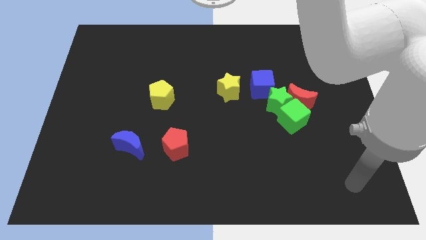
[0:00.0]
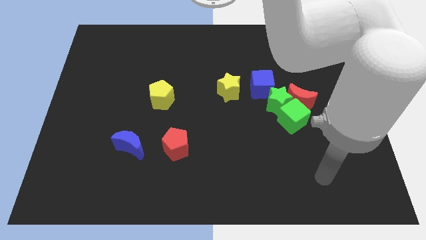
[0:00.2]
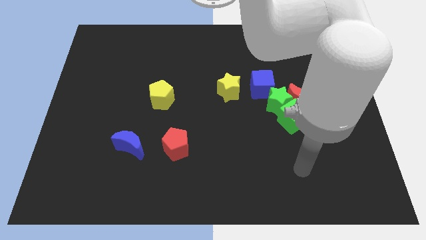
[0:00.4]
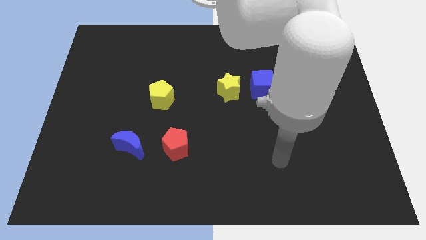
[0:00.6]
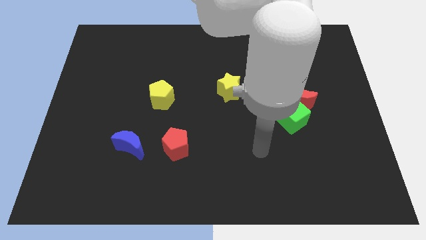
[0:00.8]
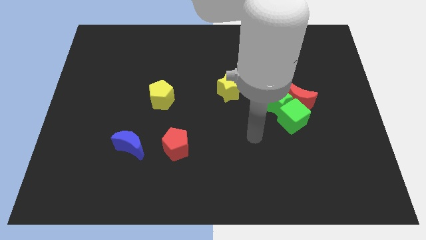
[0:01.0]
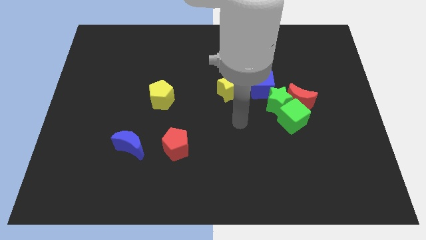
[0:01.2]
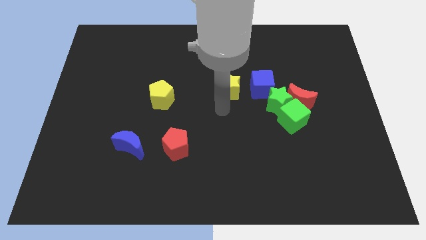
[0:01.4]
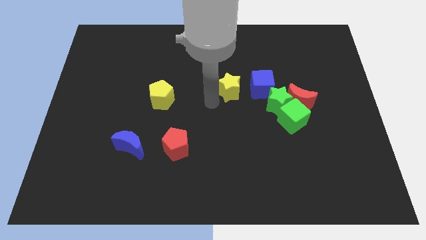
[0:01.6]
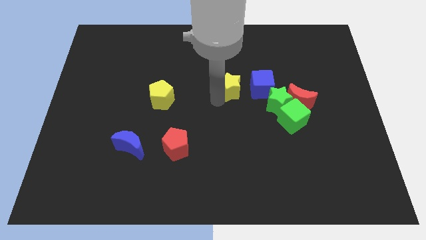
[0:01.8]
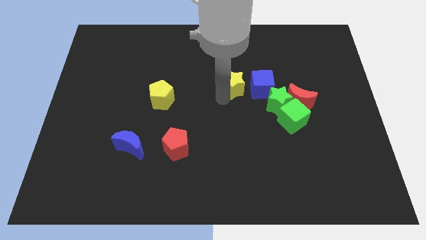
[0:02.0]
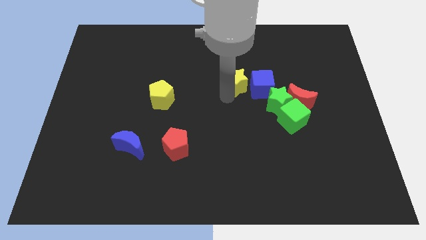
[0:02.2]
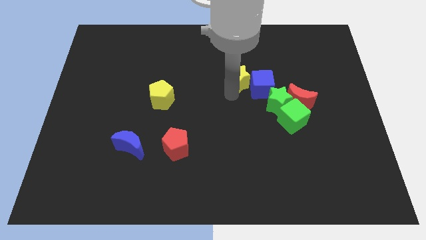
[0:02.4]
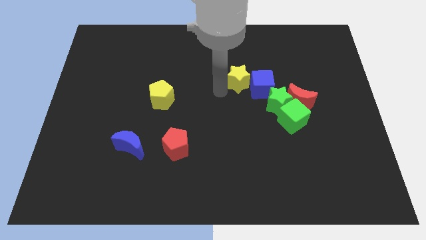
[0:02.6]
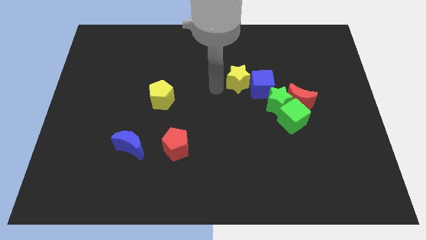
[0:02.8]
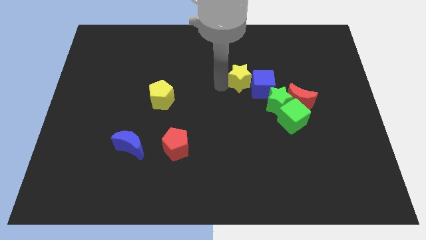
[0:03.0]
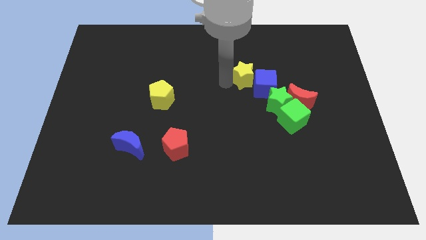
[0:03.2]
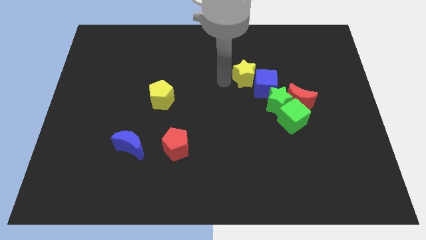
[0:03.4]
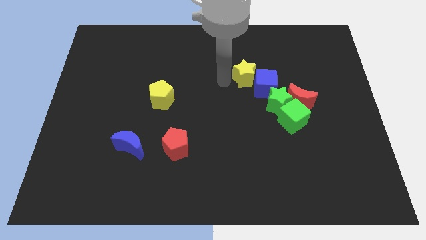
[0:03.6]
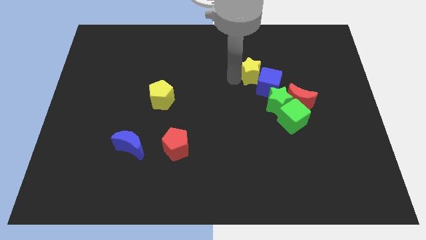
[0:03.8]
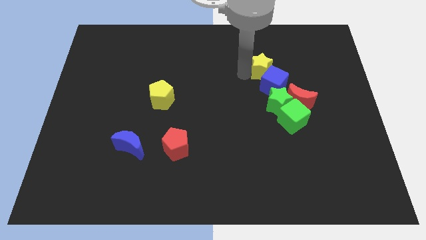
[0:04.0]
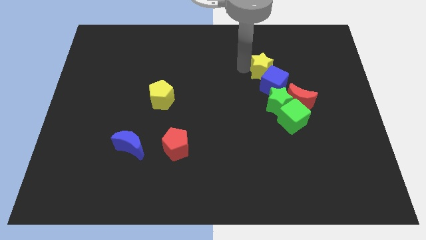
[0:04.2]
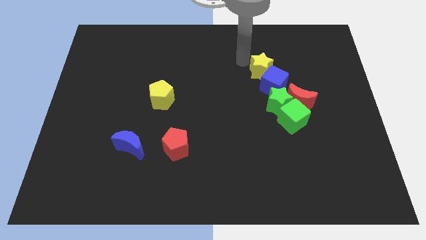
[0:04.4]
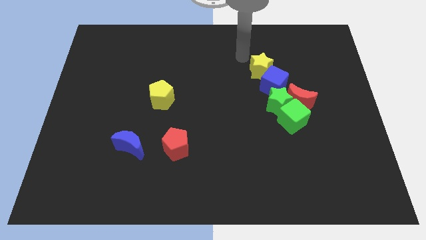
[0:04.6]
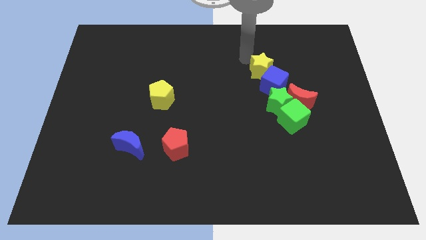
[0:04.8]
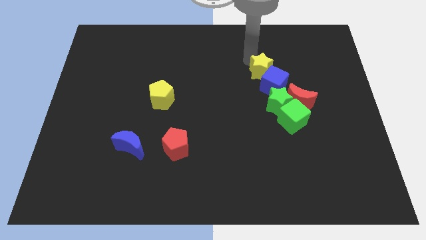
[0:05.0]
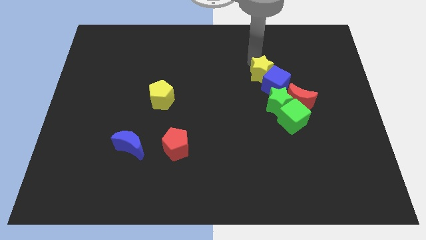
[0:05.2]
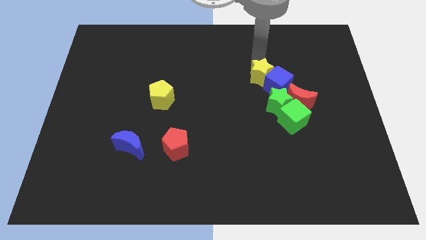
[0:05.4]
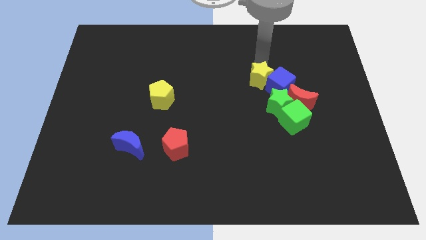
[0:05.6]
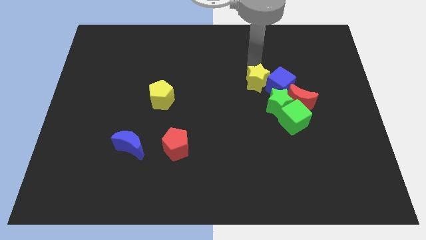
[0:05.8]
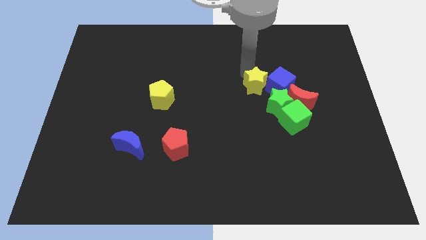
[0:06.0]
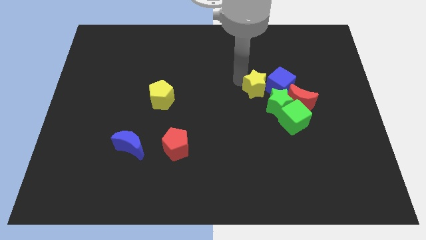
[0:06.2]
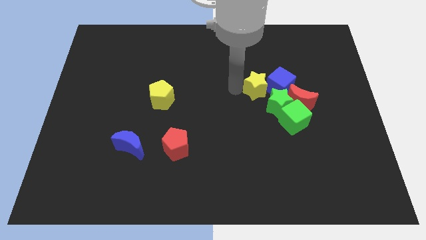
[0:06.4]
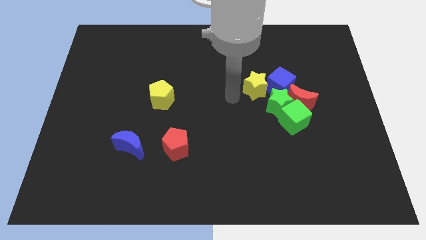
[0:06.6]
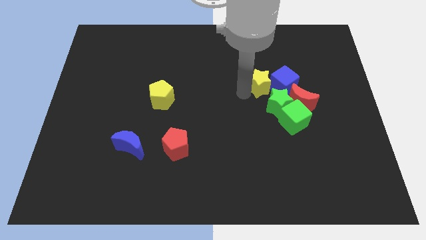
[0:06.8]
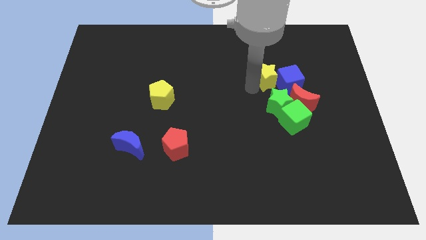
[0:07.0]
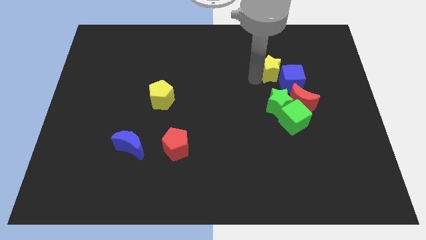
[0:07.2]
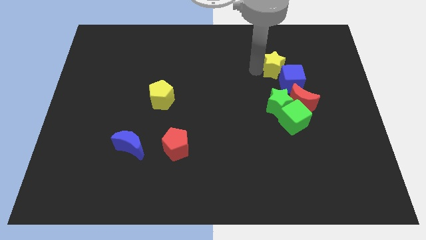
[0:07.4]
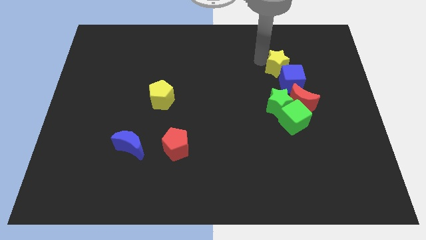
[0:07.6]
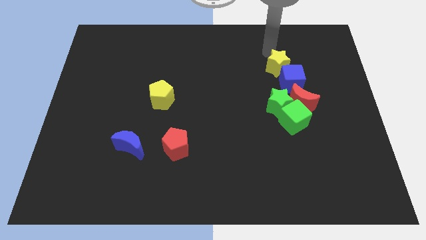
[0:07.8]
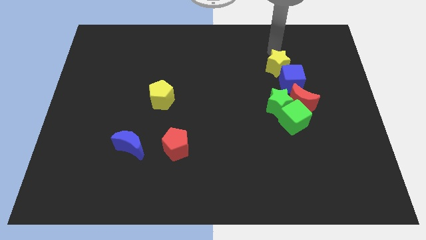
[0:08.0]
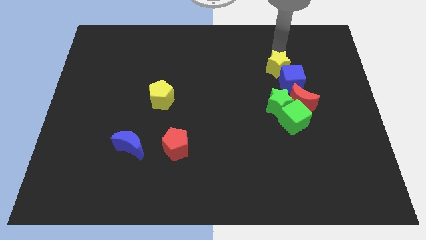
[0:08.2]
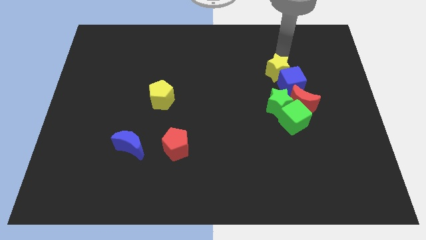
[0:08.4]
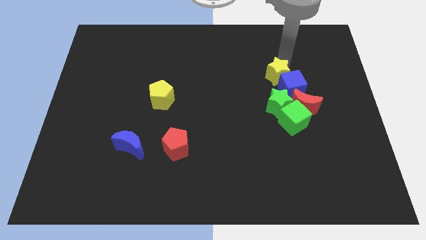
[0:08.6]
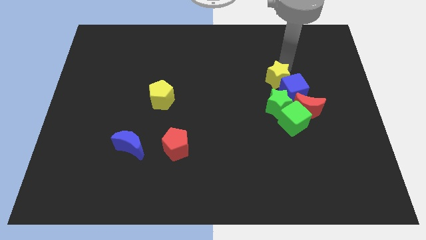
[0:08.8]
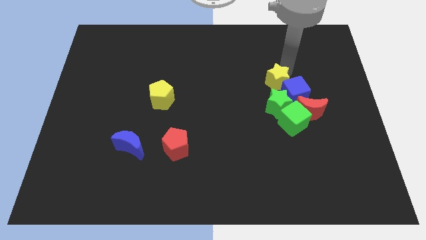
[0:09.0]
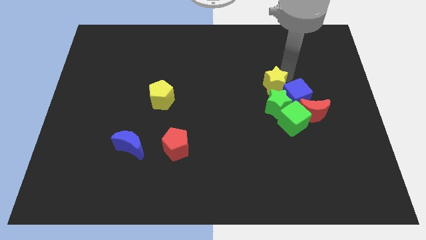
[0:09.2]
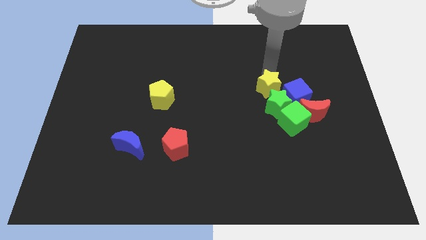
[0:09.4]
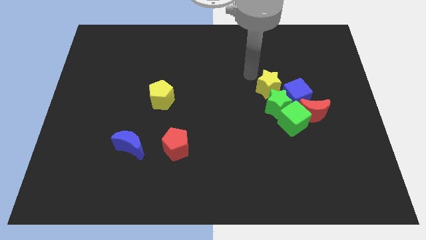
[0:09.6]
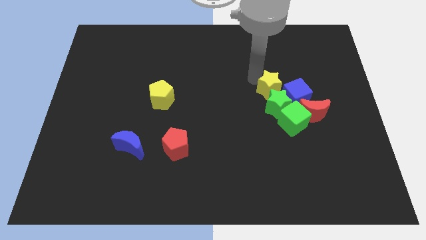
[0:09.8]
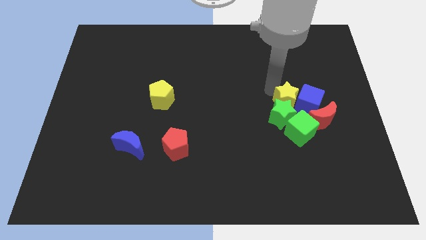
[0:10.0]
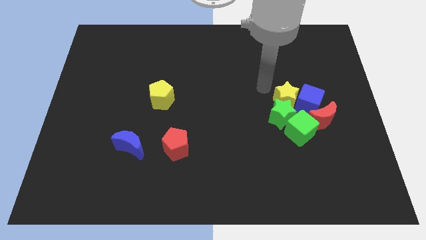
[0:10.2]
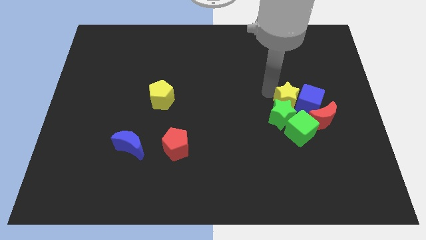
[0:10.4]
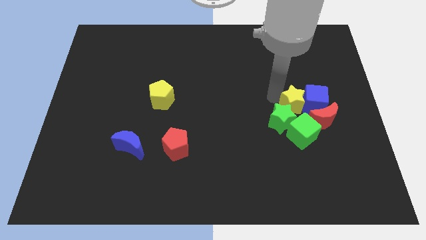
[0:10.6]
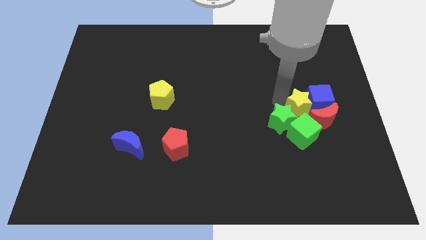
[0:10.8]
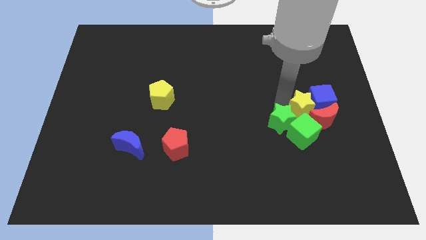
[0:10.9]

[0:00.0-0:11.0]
put the yellow star to the red moon

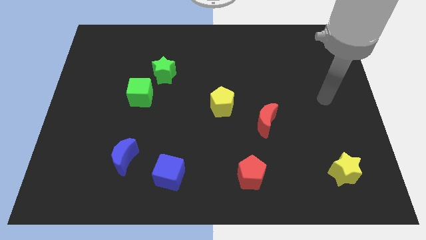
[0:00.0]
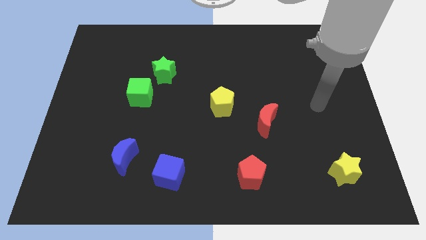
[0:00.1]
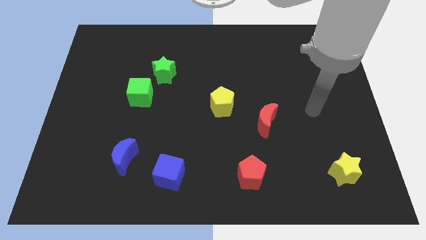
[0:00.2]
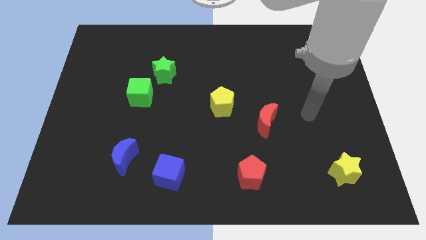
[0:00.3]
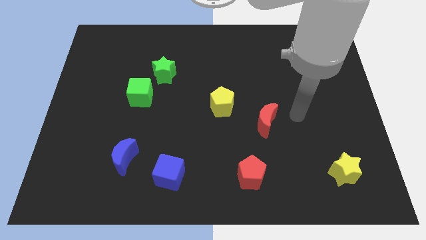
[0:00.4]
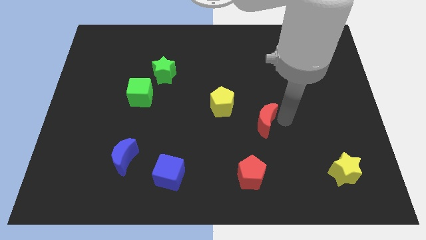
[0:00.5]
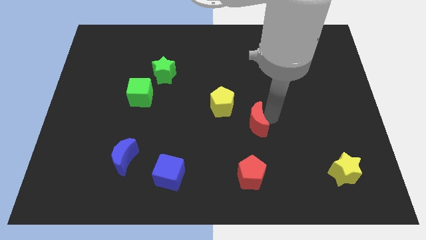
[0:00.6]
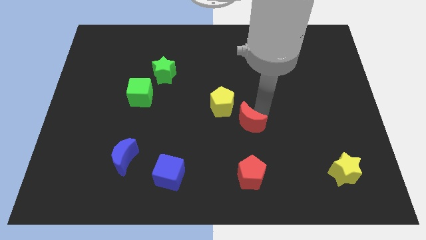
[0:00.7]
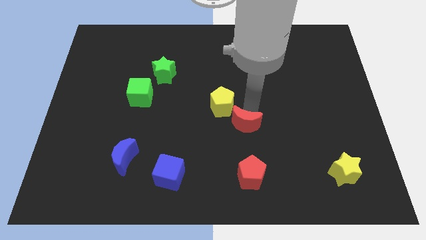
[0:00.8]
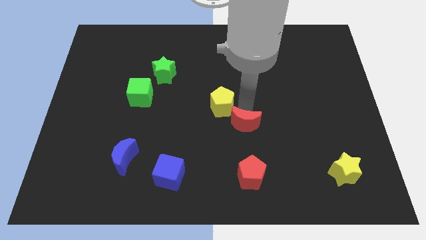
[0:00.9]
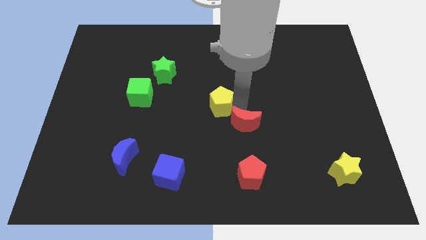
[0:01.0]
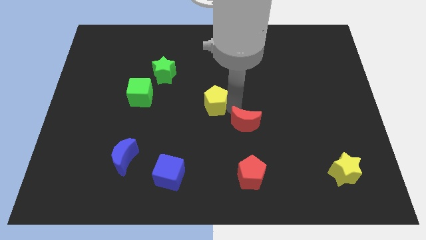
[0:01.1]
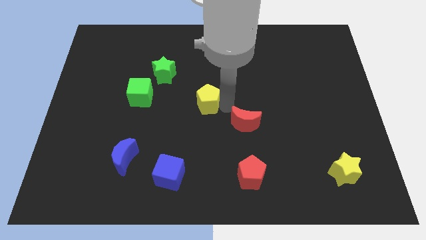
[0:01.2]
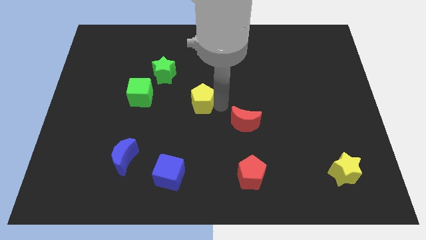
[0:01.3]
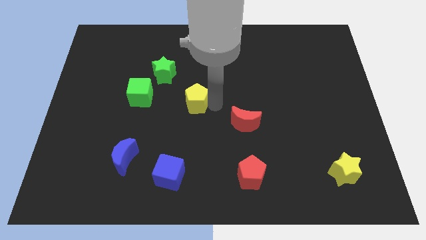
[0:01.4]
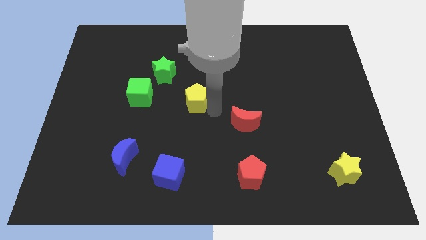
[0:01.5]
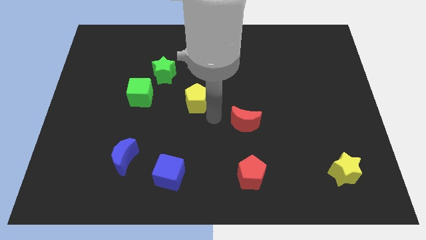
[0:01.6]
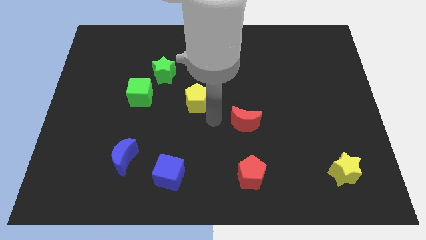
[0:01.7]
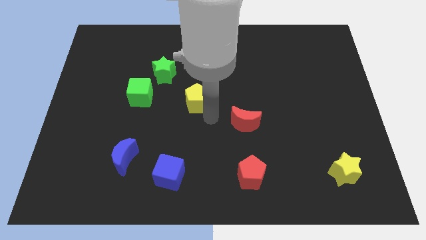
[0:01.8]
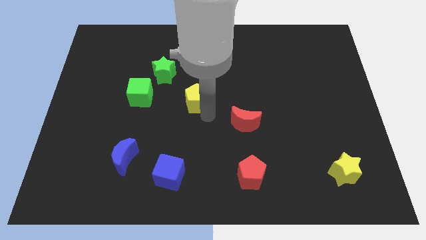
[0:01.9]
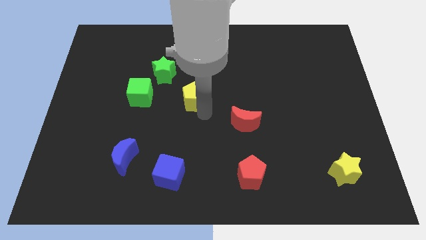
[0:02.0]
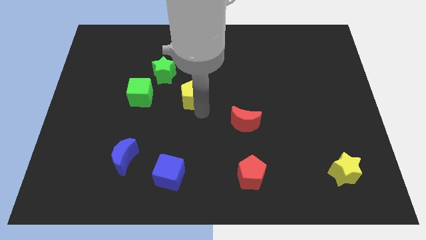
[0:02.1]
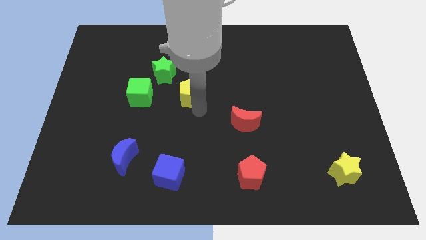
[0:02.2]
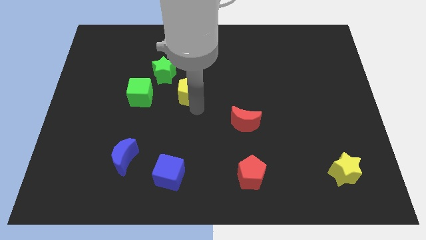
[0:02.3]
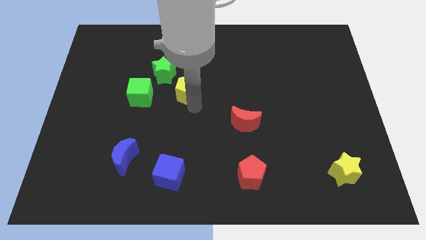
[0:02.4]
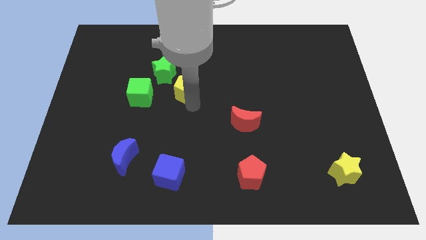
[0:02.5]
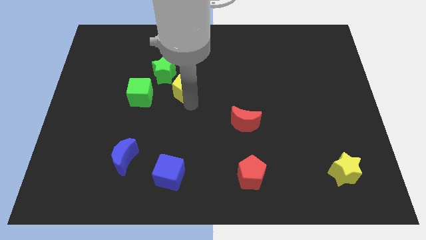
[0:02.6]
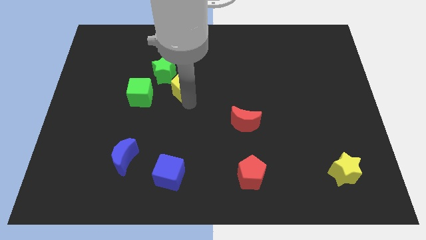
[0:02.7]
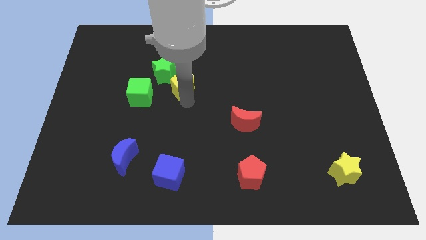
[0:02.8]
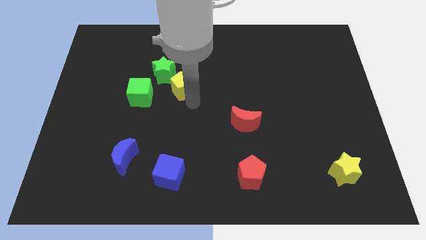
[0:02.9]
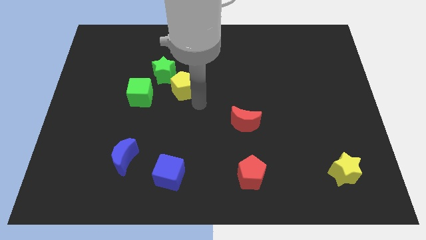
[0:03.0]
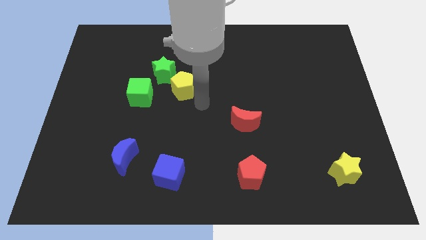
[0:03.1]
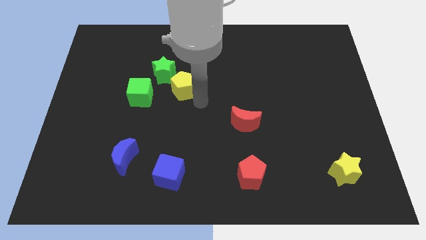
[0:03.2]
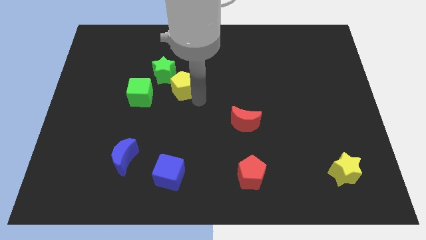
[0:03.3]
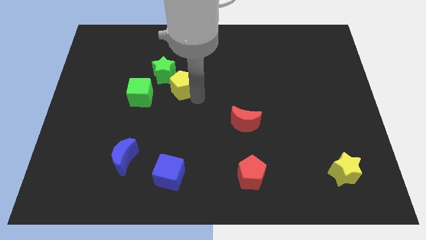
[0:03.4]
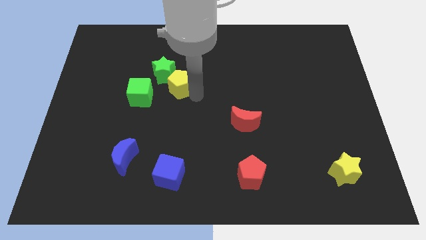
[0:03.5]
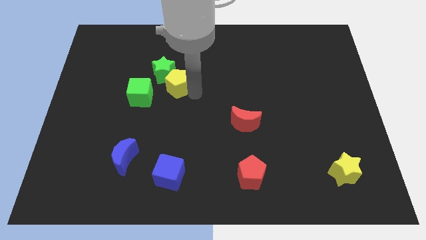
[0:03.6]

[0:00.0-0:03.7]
move the yellow pentagon close to the green star
